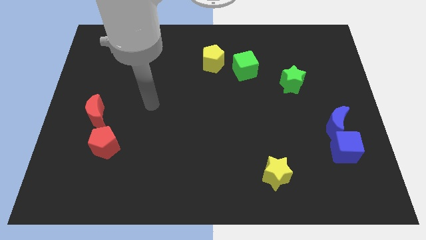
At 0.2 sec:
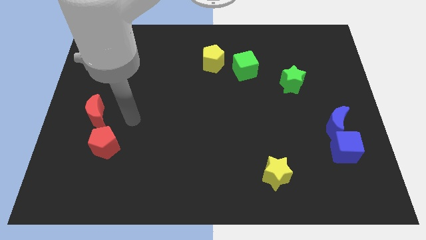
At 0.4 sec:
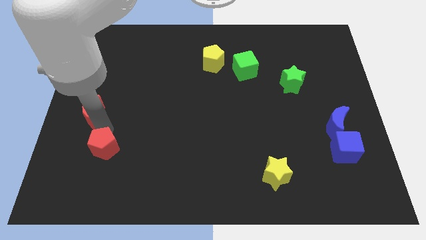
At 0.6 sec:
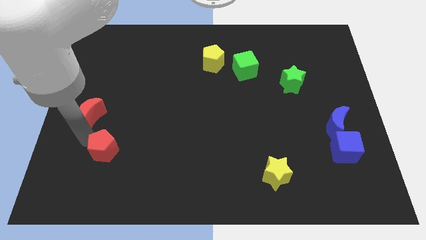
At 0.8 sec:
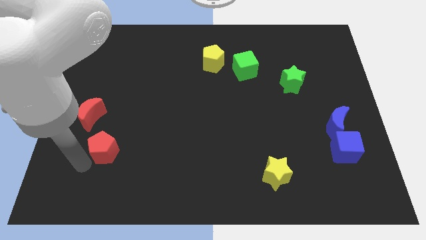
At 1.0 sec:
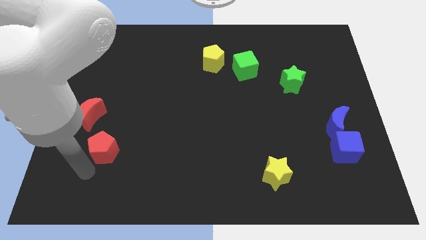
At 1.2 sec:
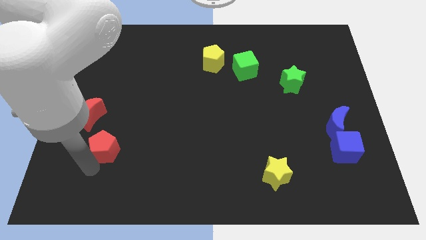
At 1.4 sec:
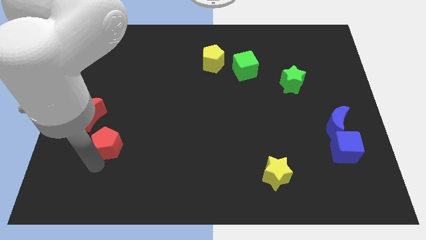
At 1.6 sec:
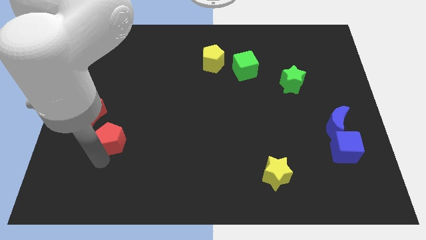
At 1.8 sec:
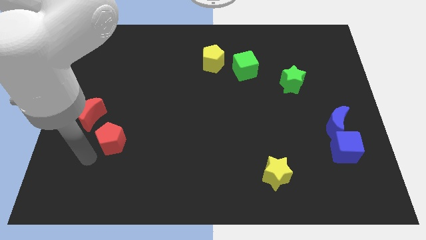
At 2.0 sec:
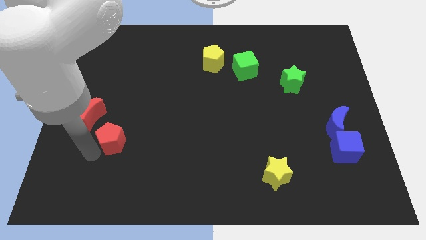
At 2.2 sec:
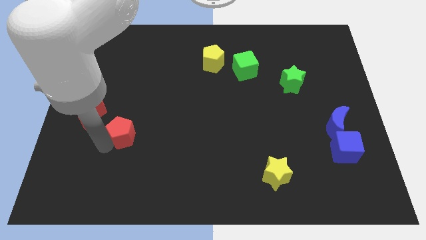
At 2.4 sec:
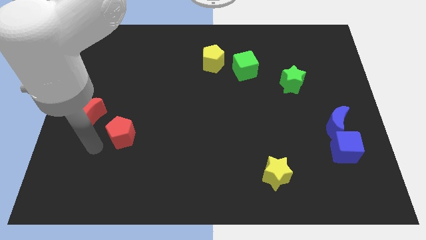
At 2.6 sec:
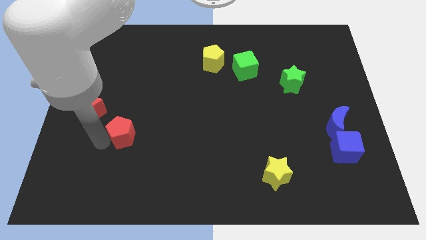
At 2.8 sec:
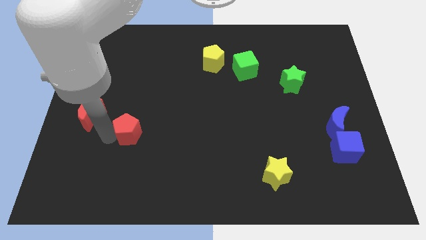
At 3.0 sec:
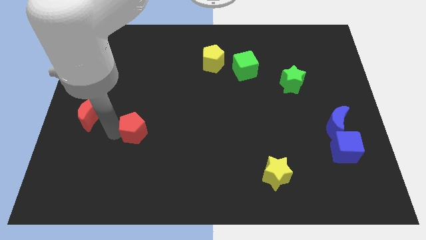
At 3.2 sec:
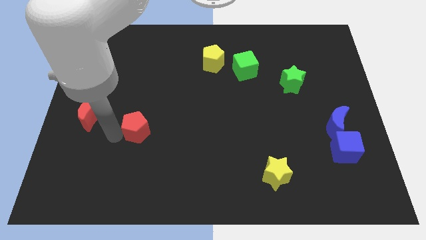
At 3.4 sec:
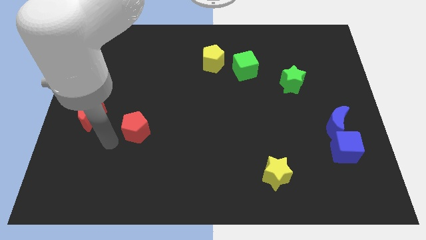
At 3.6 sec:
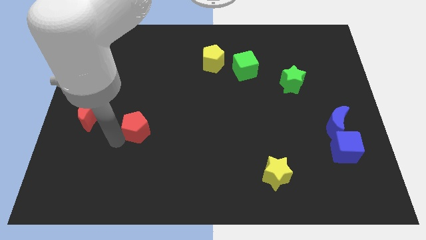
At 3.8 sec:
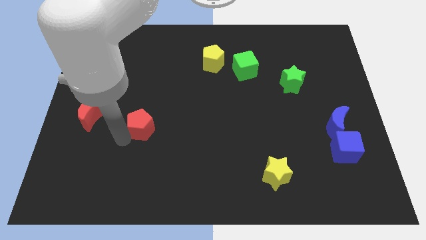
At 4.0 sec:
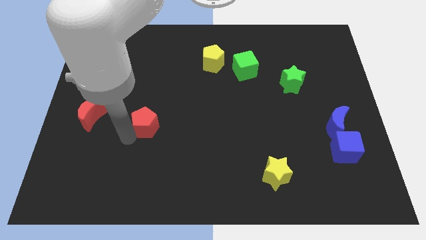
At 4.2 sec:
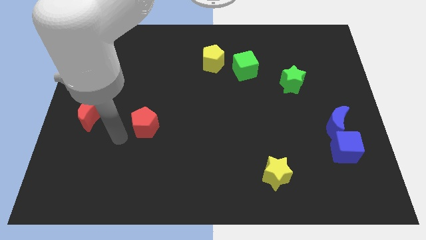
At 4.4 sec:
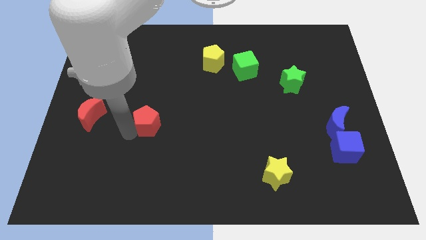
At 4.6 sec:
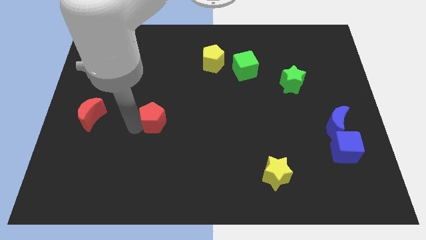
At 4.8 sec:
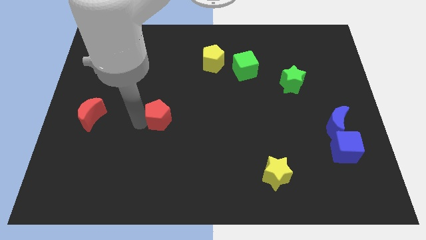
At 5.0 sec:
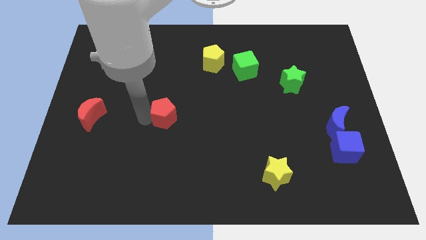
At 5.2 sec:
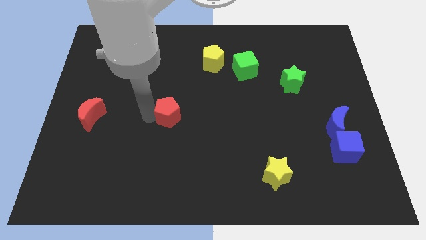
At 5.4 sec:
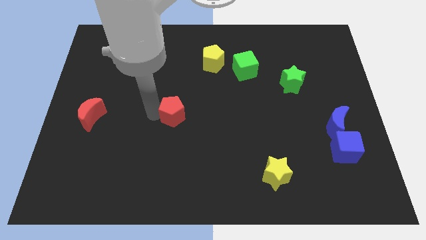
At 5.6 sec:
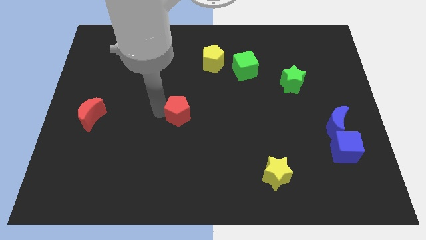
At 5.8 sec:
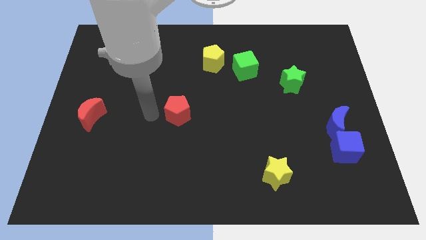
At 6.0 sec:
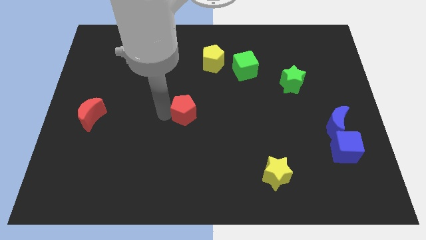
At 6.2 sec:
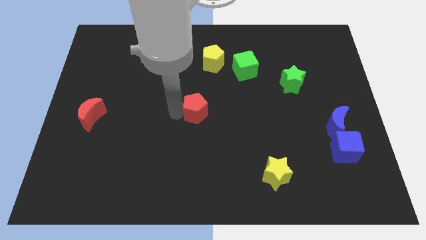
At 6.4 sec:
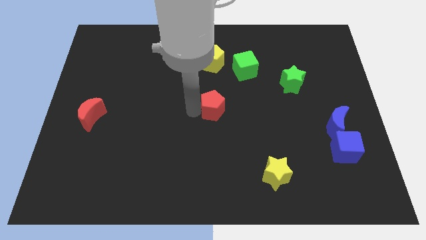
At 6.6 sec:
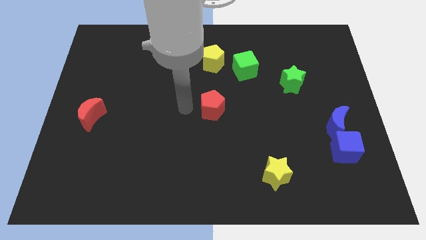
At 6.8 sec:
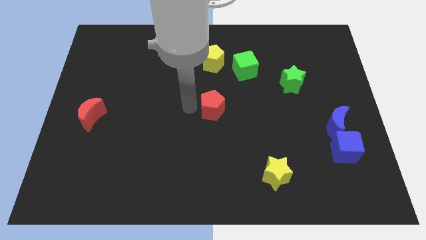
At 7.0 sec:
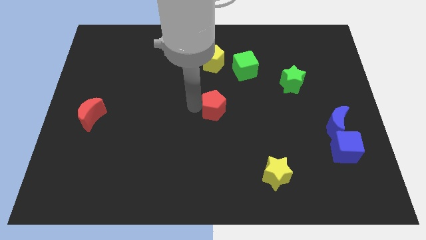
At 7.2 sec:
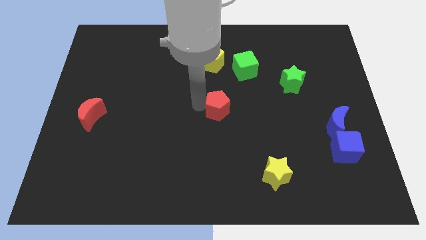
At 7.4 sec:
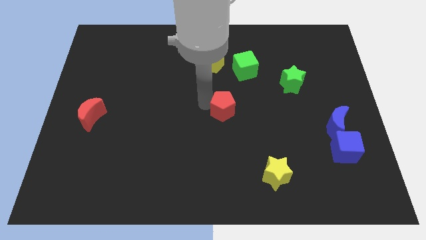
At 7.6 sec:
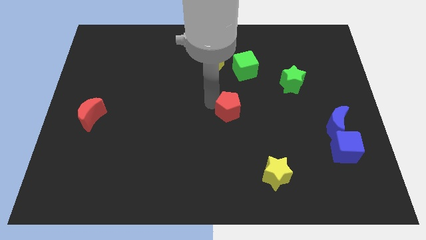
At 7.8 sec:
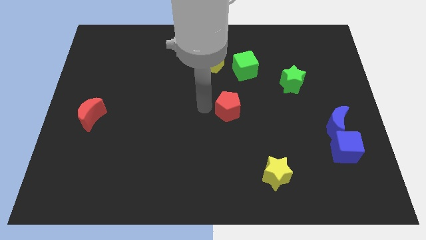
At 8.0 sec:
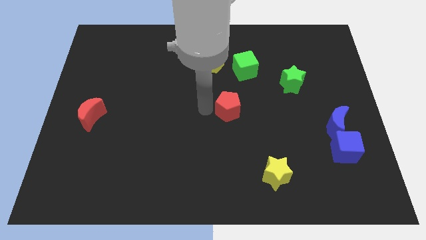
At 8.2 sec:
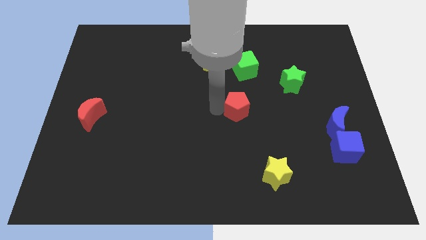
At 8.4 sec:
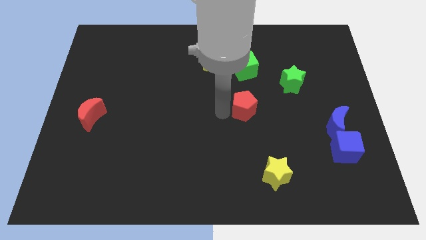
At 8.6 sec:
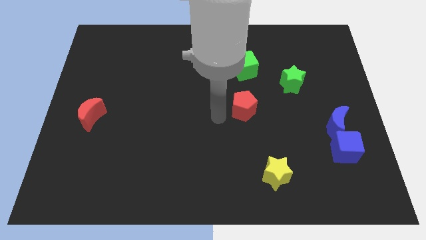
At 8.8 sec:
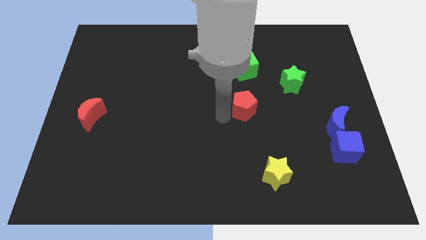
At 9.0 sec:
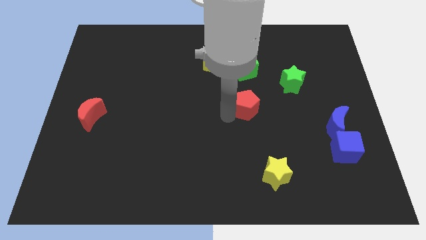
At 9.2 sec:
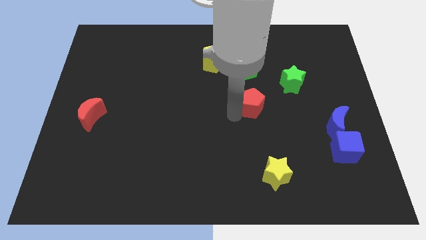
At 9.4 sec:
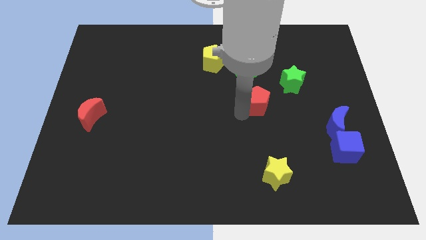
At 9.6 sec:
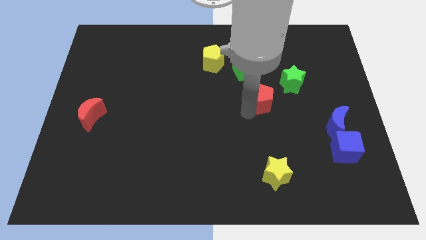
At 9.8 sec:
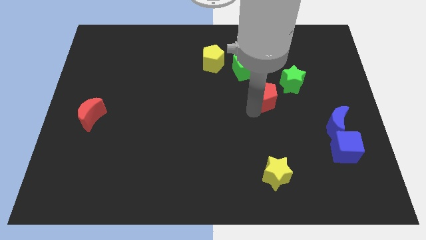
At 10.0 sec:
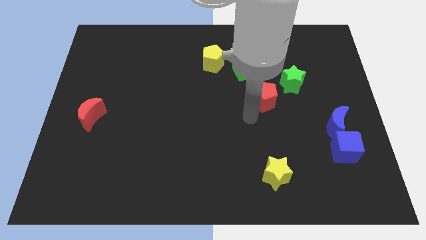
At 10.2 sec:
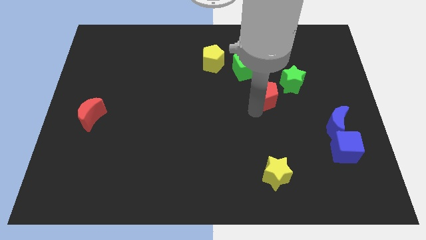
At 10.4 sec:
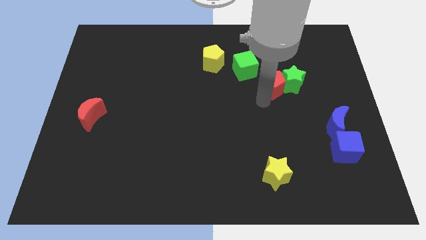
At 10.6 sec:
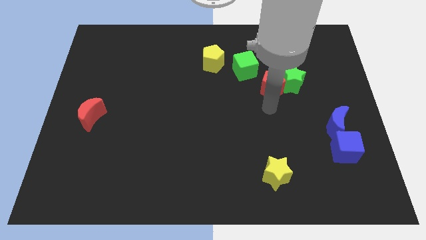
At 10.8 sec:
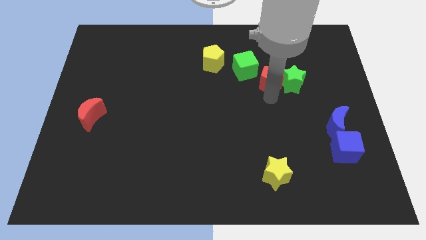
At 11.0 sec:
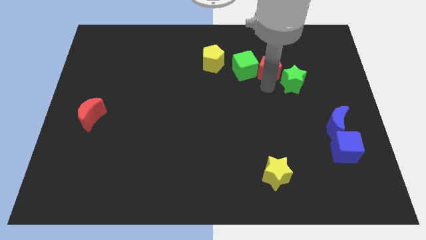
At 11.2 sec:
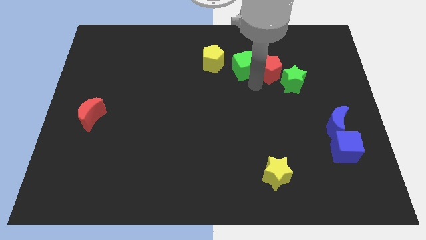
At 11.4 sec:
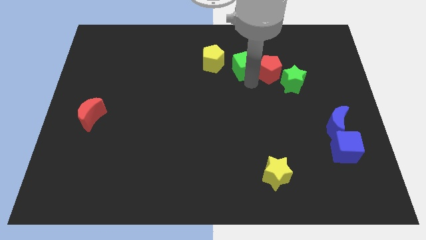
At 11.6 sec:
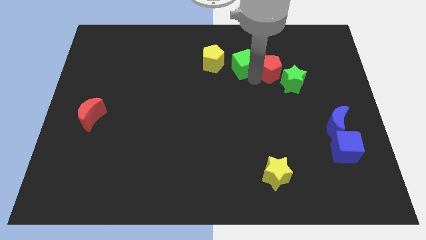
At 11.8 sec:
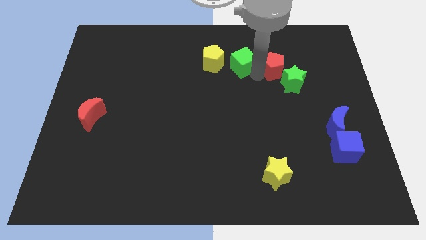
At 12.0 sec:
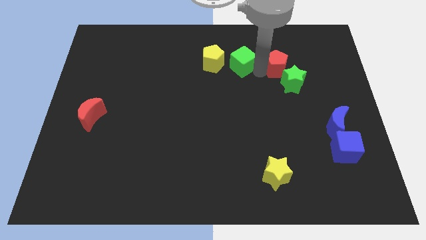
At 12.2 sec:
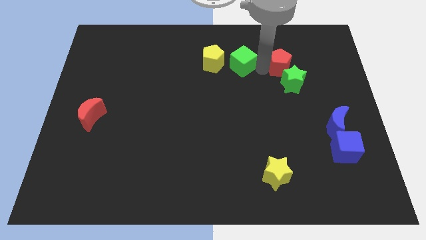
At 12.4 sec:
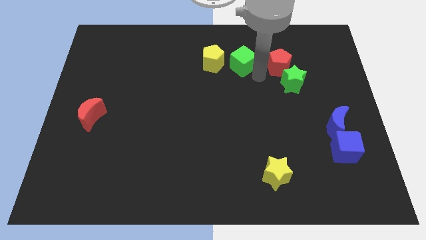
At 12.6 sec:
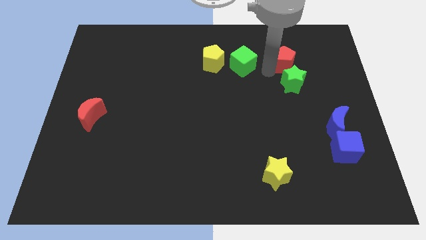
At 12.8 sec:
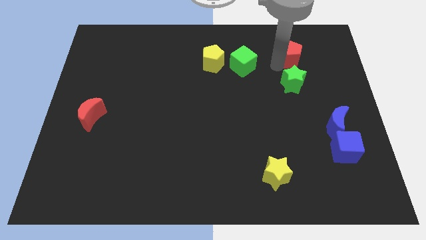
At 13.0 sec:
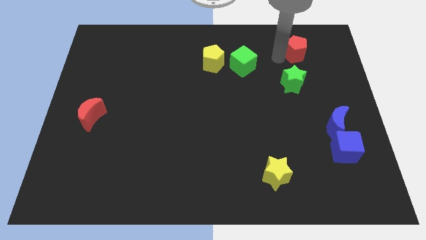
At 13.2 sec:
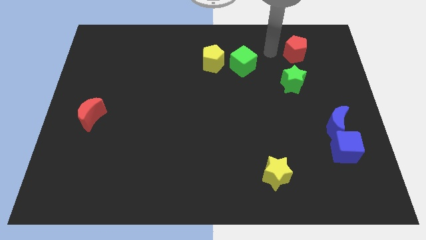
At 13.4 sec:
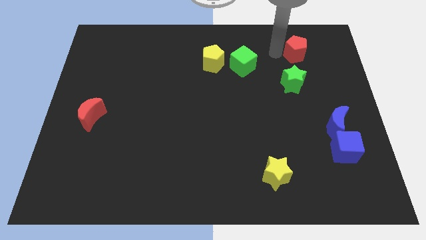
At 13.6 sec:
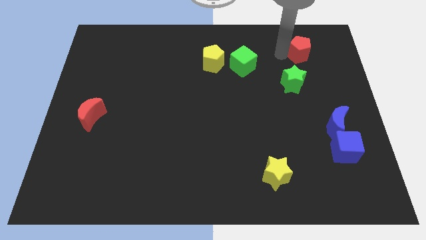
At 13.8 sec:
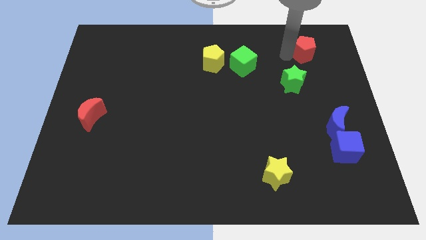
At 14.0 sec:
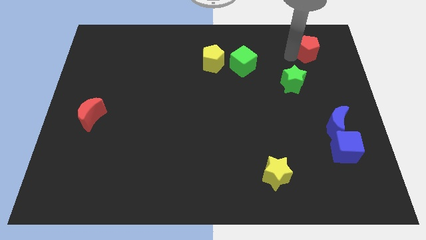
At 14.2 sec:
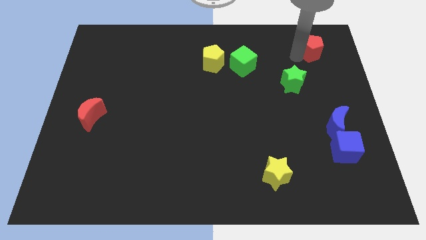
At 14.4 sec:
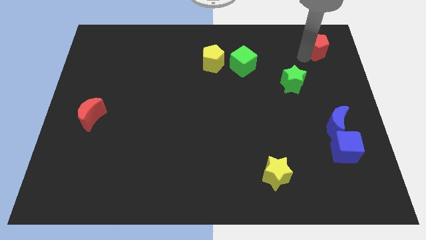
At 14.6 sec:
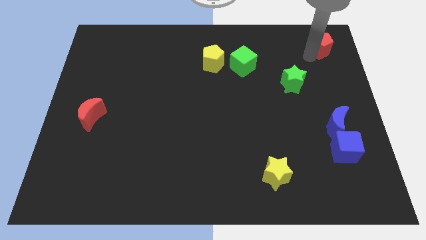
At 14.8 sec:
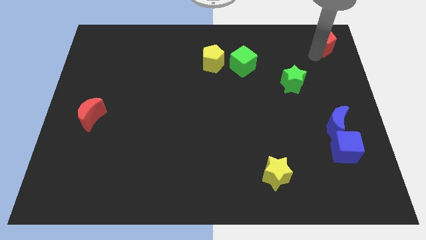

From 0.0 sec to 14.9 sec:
slide the red pentagon to the top right
